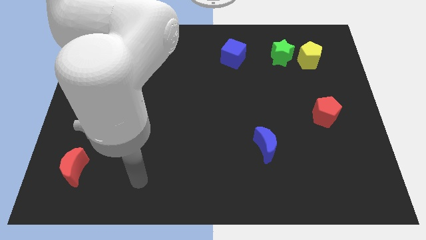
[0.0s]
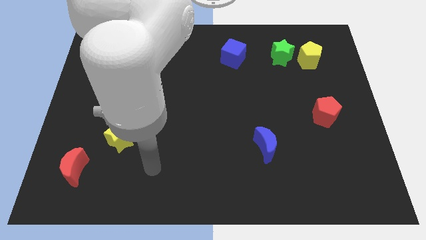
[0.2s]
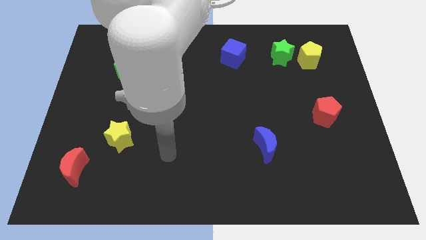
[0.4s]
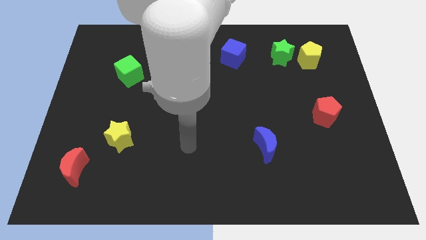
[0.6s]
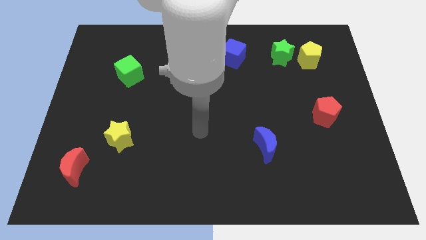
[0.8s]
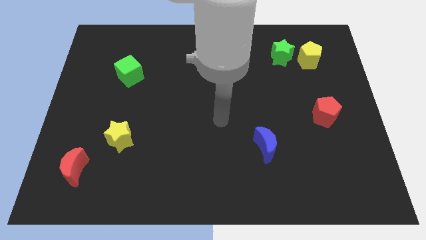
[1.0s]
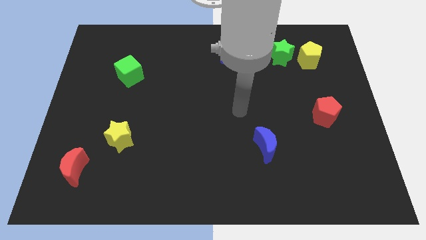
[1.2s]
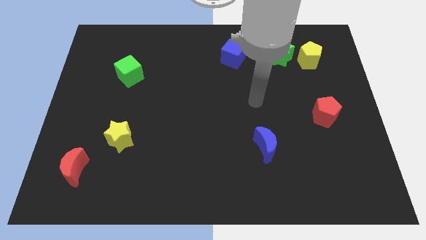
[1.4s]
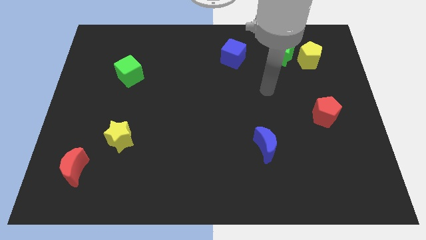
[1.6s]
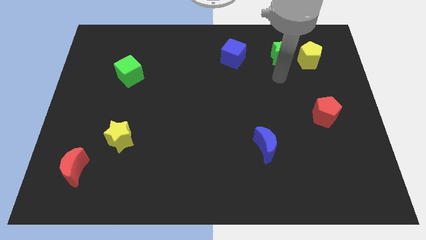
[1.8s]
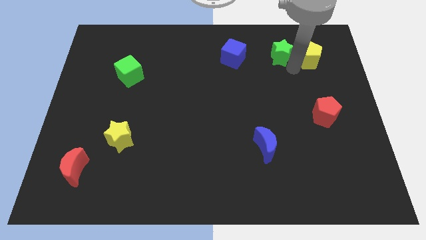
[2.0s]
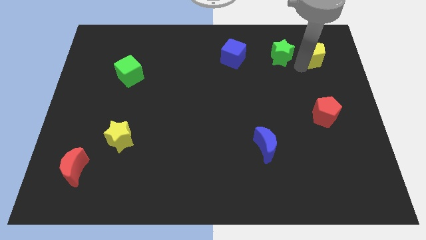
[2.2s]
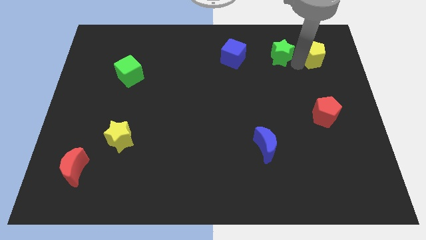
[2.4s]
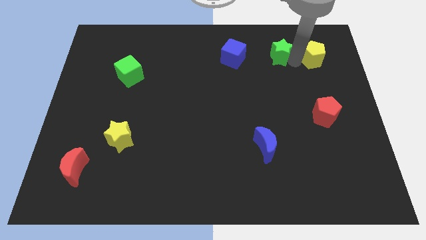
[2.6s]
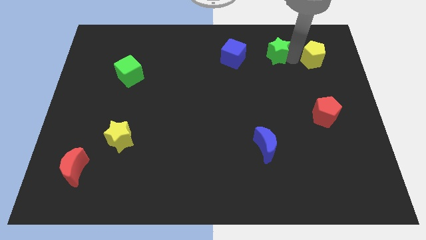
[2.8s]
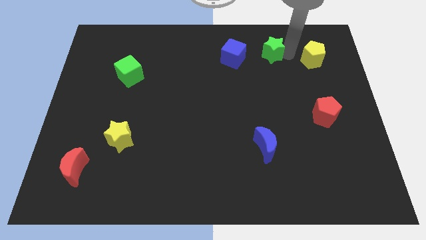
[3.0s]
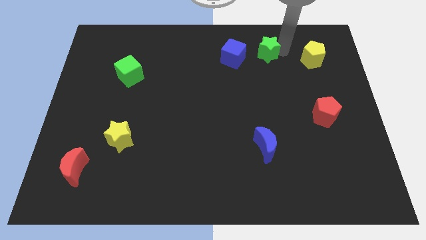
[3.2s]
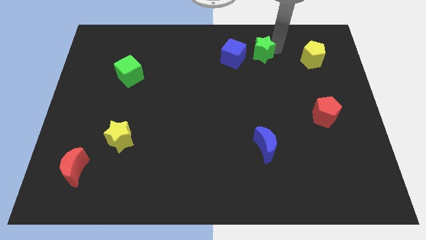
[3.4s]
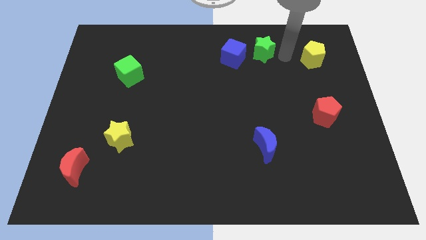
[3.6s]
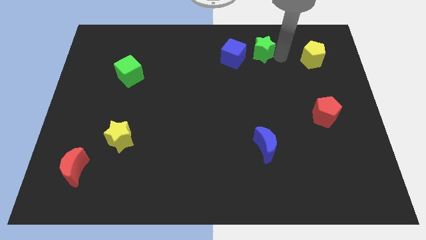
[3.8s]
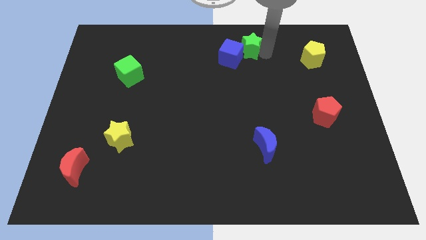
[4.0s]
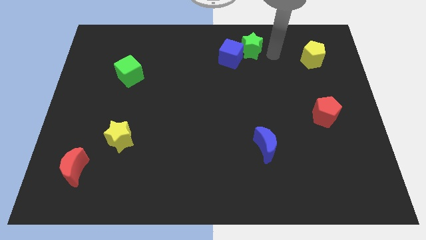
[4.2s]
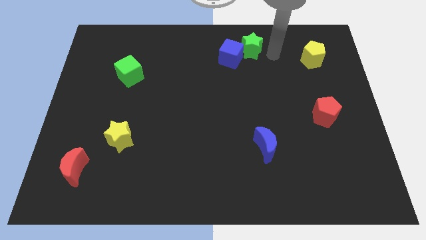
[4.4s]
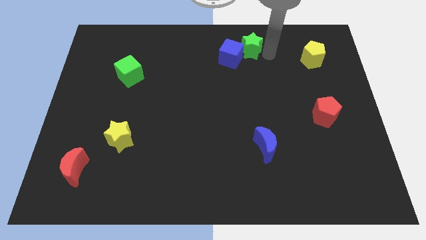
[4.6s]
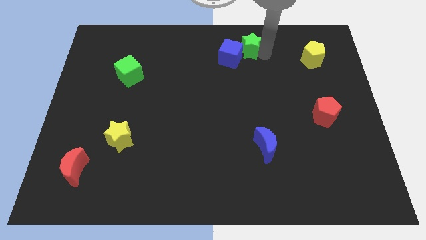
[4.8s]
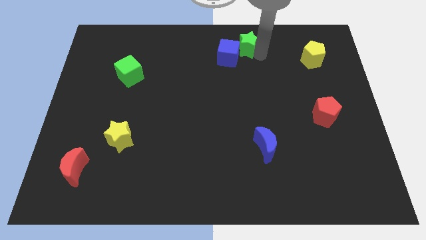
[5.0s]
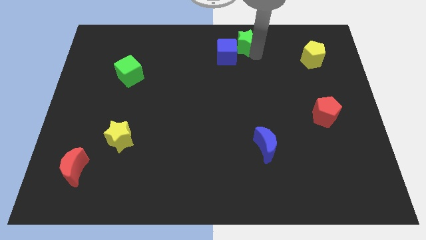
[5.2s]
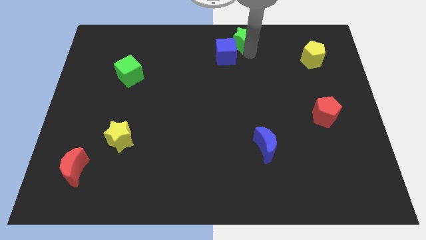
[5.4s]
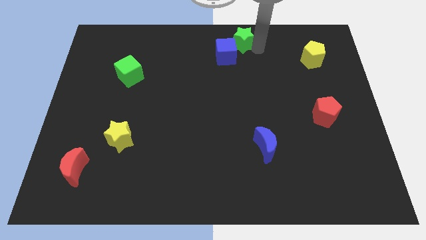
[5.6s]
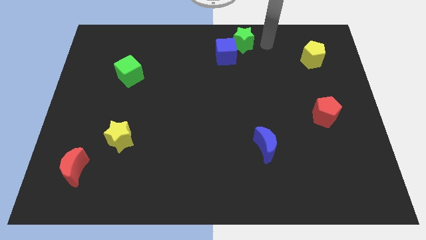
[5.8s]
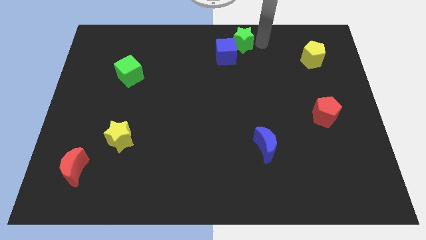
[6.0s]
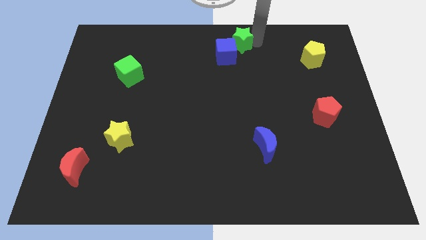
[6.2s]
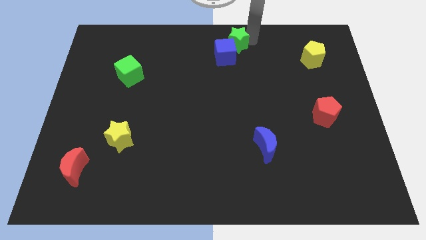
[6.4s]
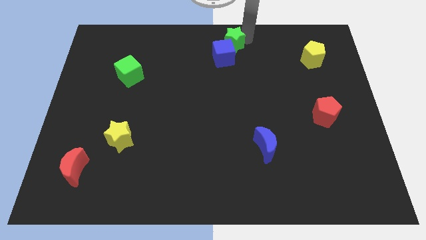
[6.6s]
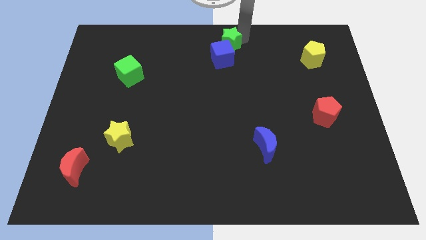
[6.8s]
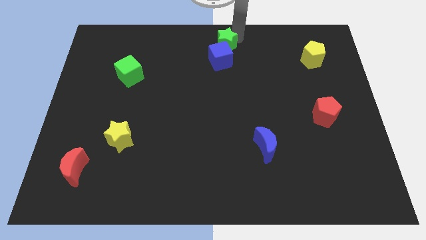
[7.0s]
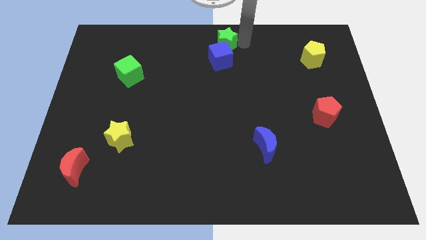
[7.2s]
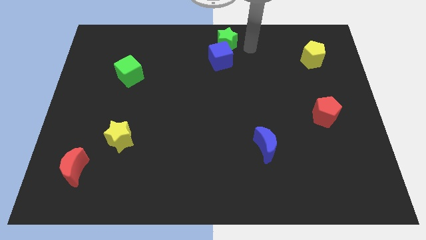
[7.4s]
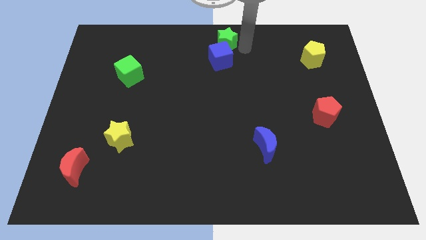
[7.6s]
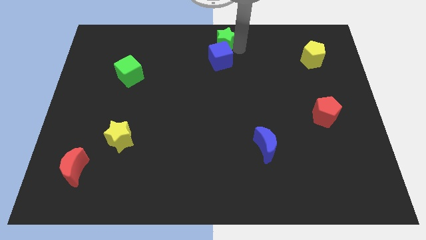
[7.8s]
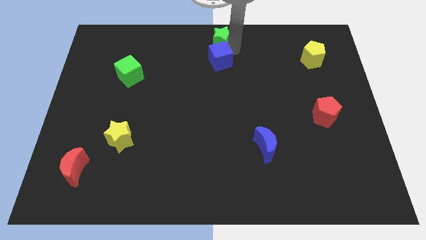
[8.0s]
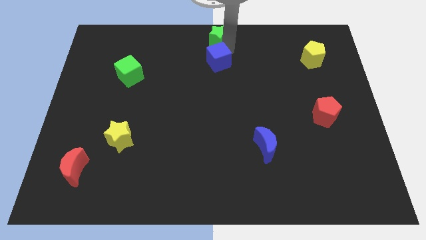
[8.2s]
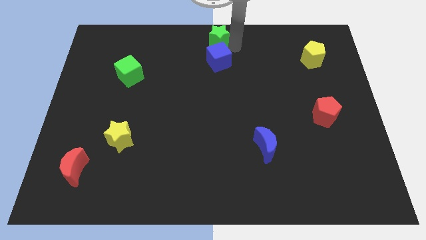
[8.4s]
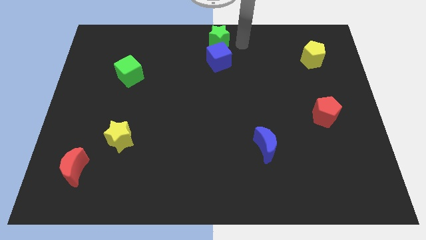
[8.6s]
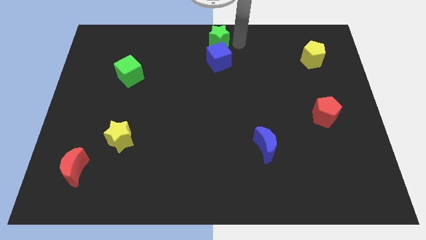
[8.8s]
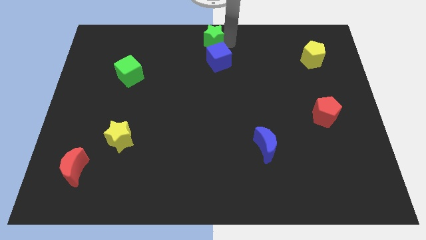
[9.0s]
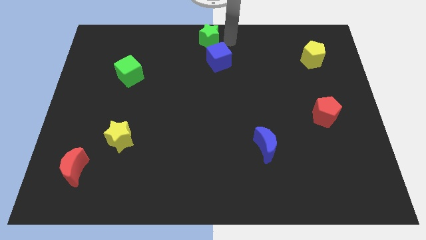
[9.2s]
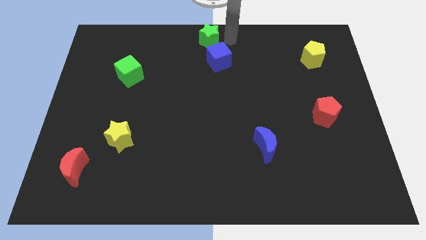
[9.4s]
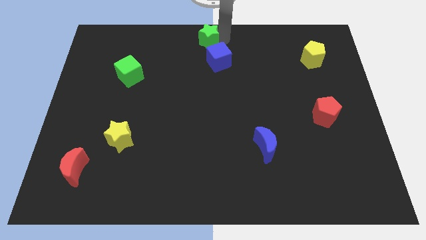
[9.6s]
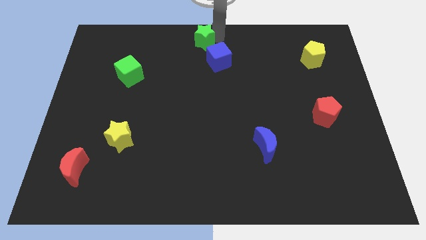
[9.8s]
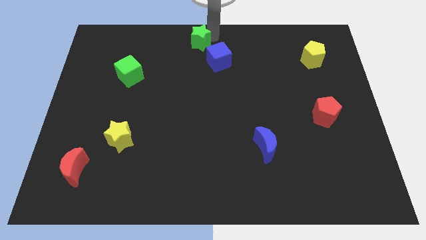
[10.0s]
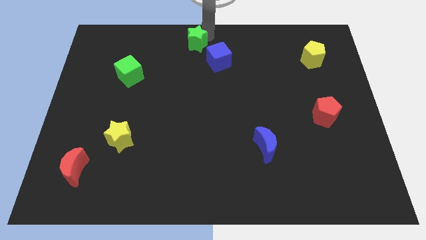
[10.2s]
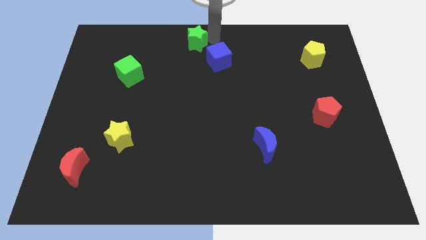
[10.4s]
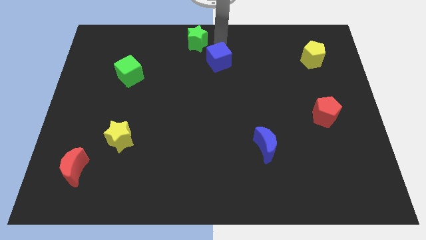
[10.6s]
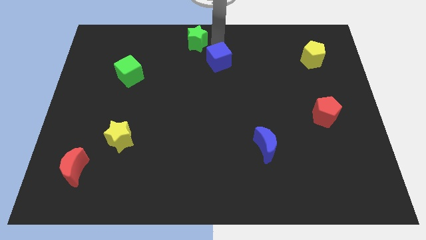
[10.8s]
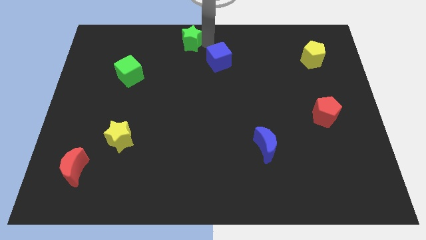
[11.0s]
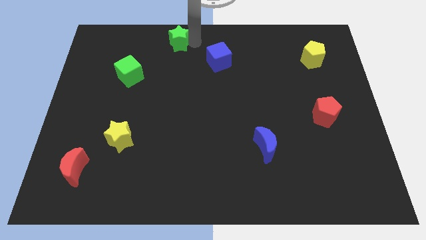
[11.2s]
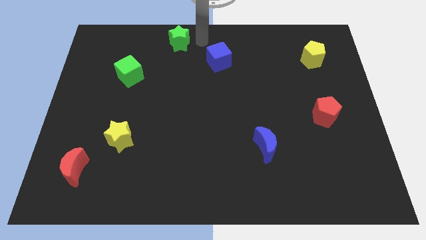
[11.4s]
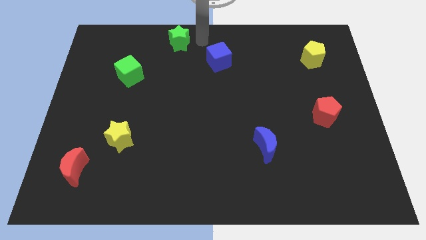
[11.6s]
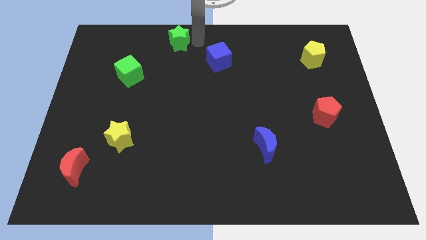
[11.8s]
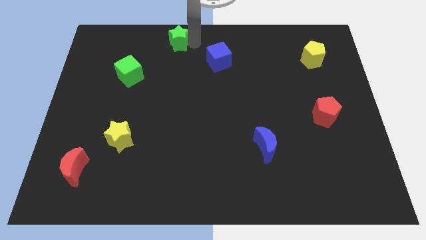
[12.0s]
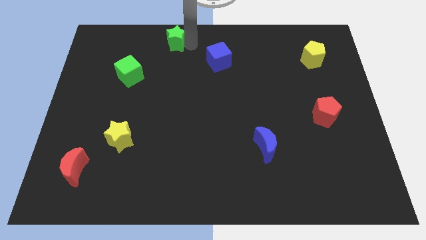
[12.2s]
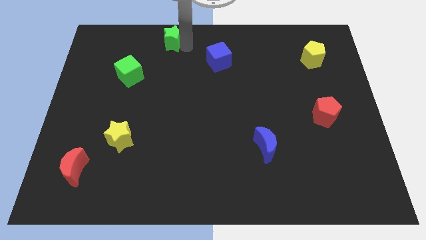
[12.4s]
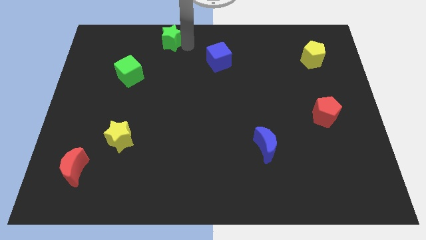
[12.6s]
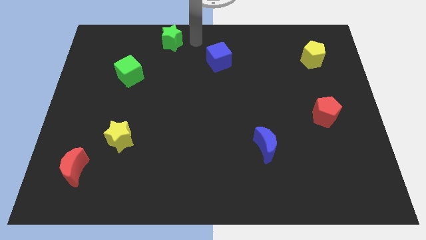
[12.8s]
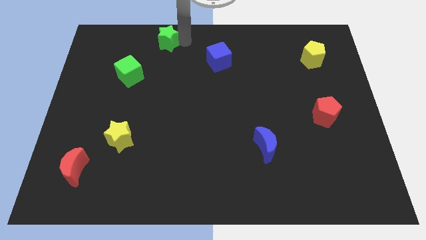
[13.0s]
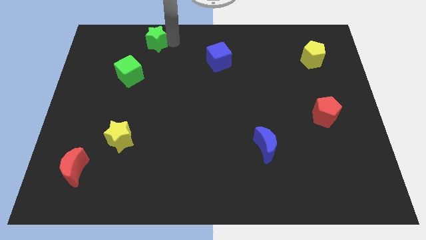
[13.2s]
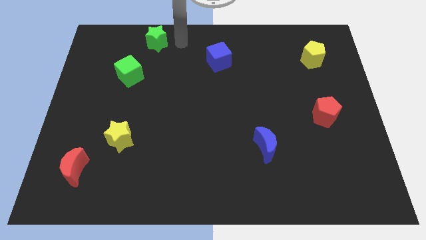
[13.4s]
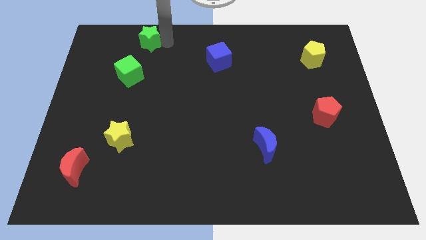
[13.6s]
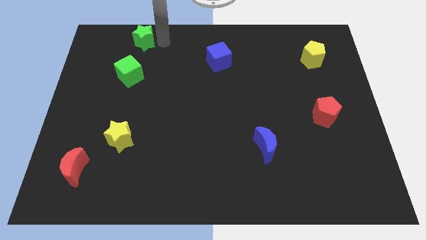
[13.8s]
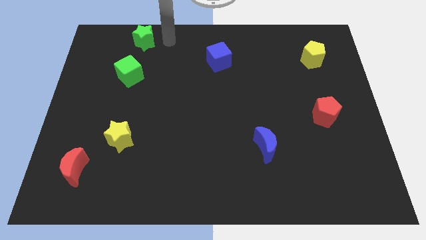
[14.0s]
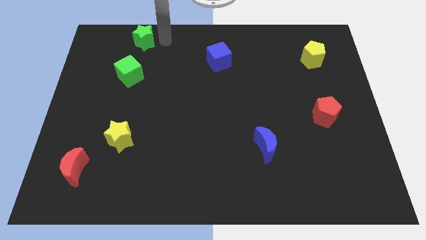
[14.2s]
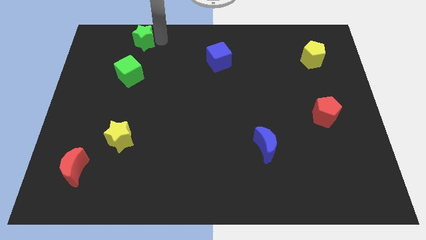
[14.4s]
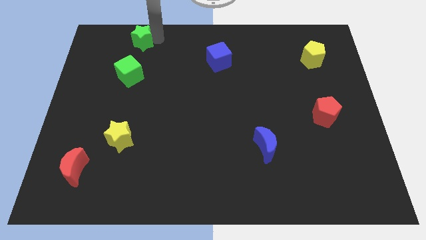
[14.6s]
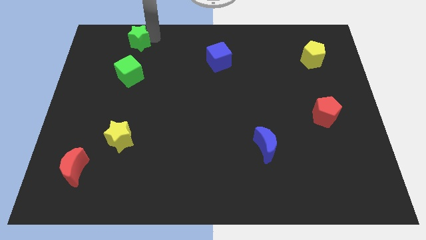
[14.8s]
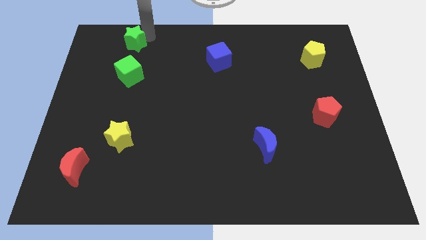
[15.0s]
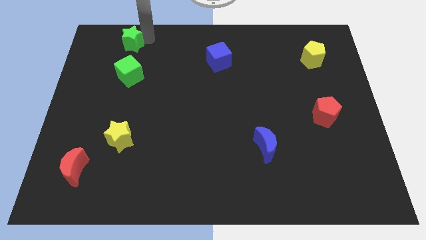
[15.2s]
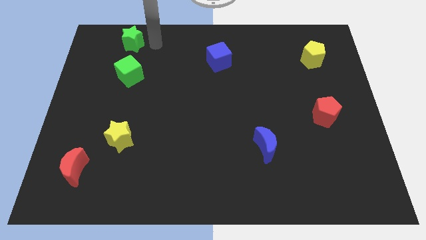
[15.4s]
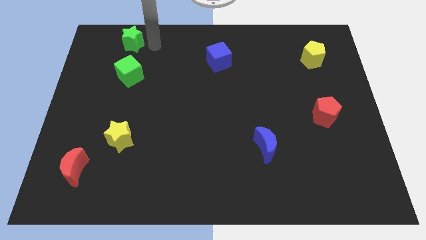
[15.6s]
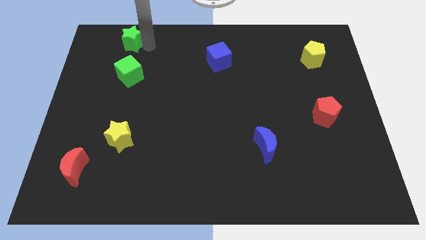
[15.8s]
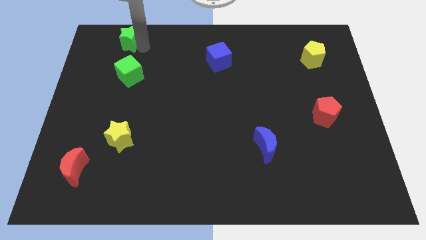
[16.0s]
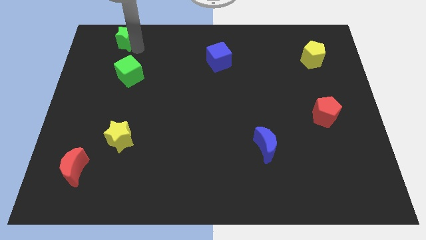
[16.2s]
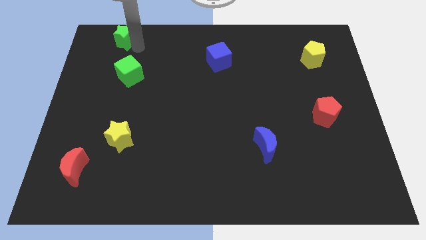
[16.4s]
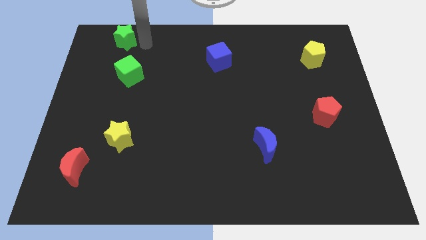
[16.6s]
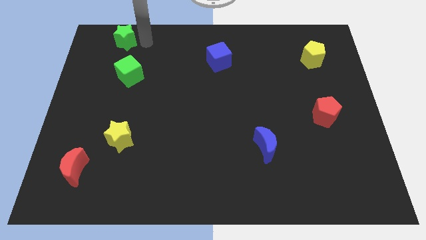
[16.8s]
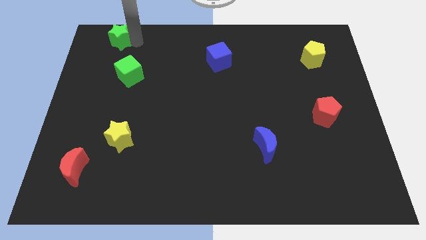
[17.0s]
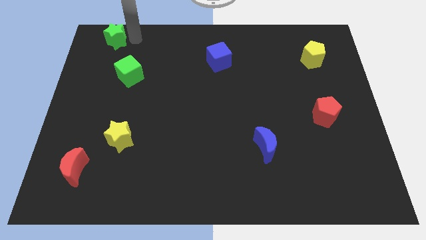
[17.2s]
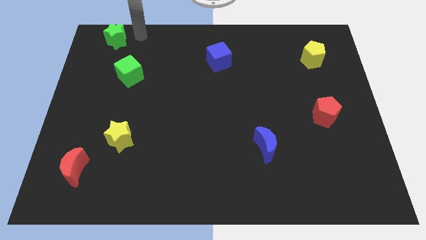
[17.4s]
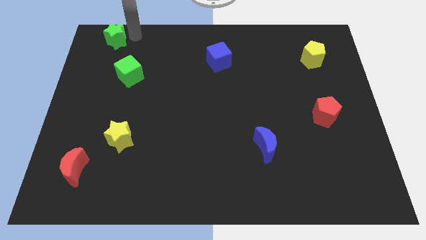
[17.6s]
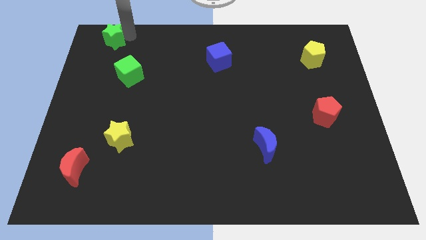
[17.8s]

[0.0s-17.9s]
put the green star to the upper left corner
